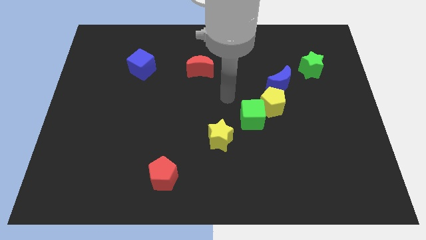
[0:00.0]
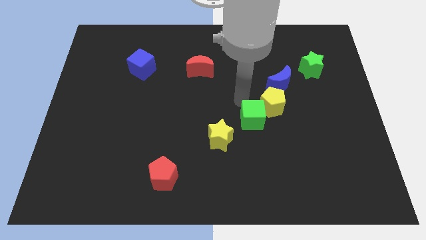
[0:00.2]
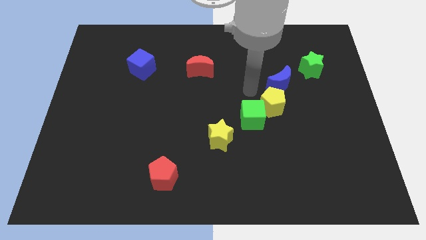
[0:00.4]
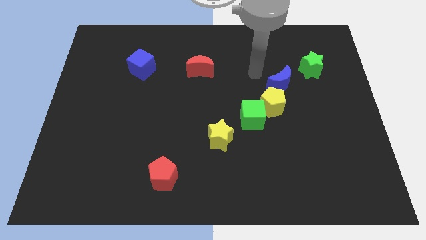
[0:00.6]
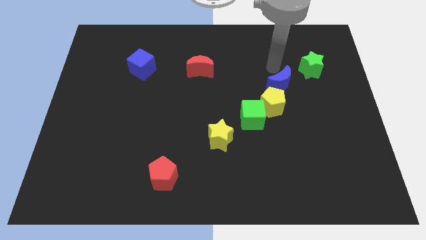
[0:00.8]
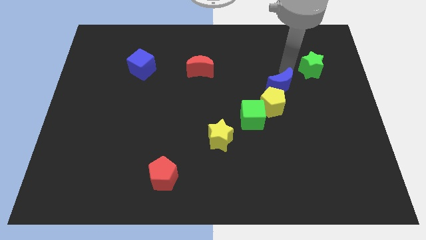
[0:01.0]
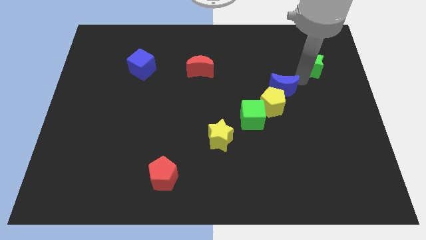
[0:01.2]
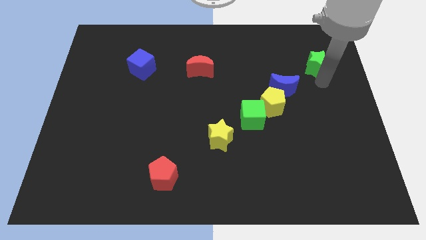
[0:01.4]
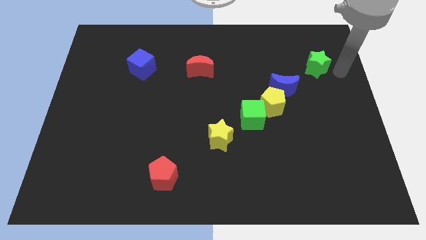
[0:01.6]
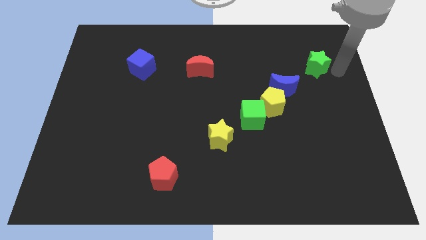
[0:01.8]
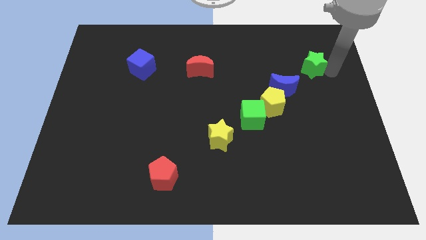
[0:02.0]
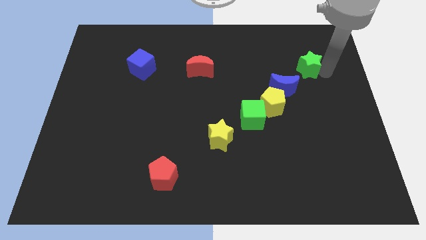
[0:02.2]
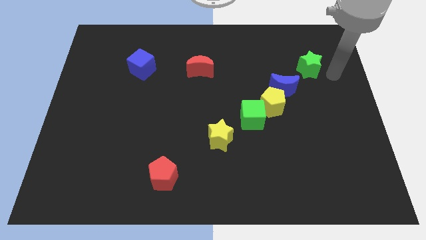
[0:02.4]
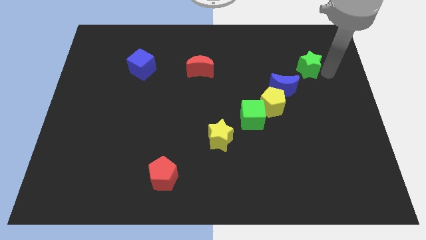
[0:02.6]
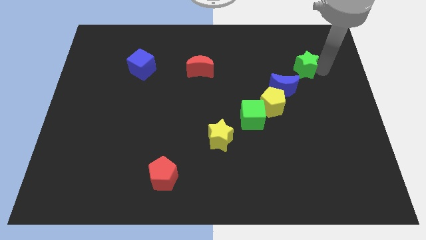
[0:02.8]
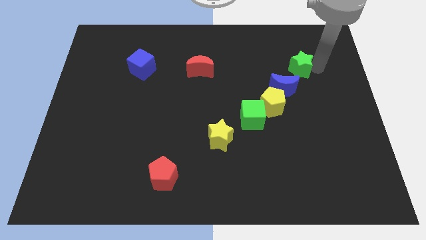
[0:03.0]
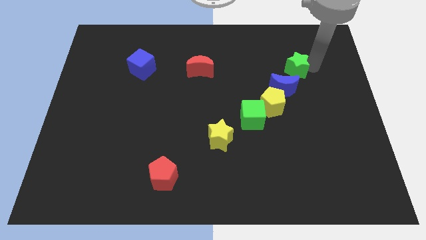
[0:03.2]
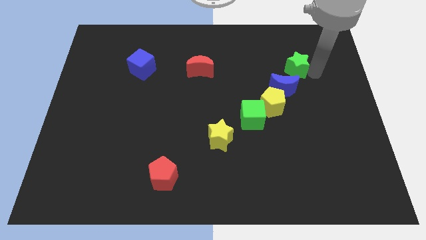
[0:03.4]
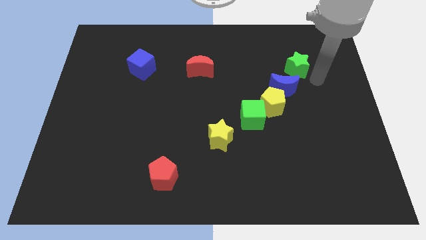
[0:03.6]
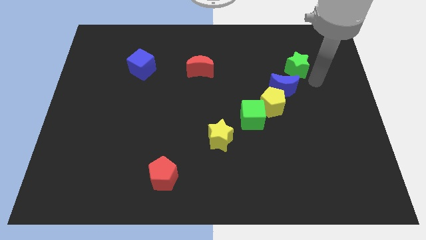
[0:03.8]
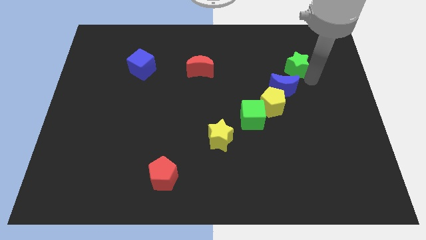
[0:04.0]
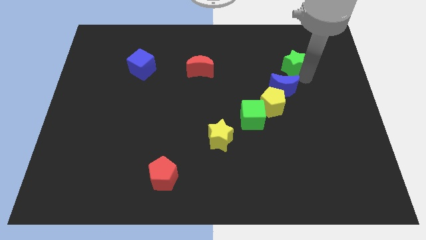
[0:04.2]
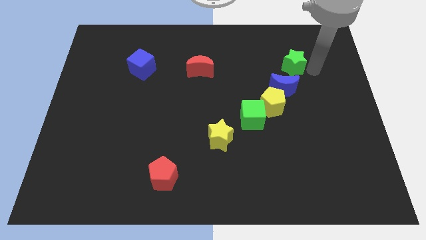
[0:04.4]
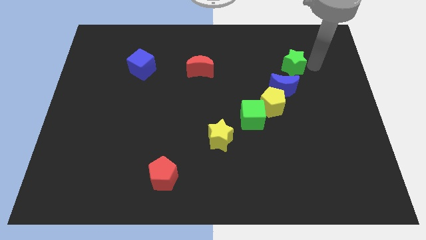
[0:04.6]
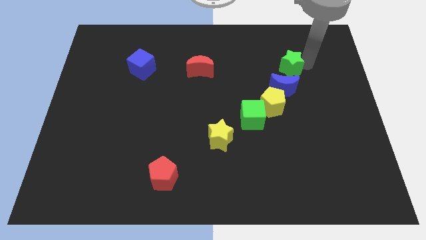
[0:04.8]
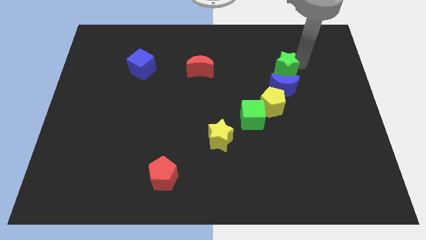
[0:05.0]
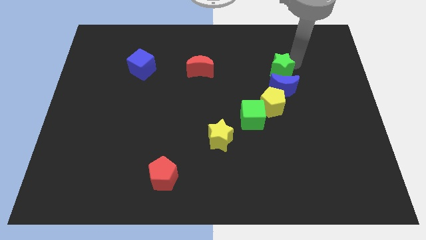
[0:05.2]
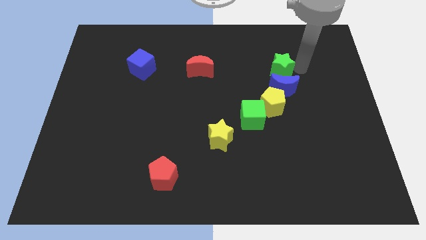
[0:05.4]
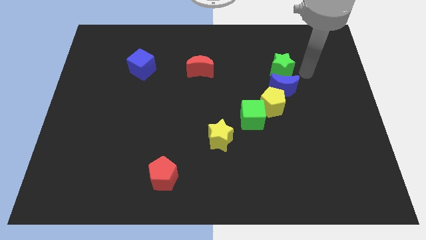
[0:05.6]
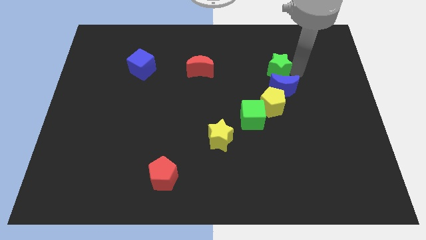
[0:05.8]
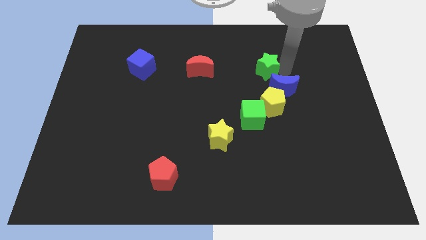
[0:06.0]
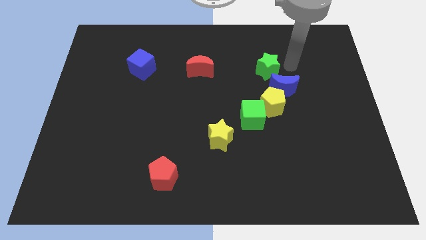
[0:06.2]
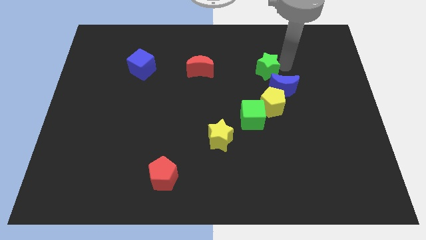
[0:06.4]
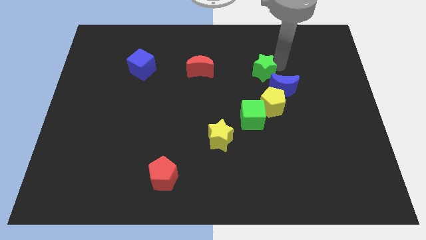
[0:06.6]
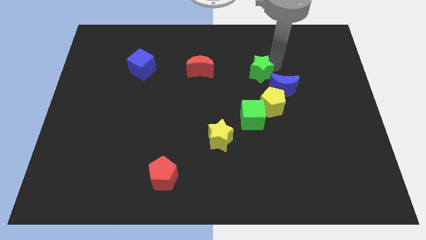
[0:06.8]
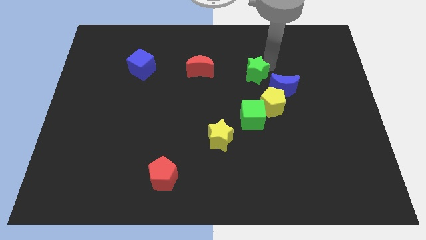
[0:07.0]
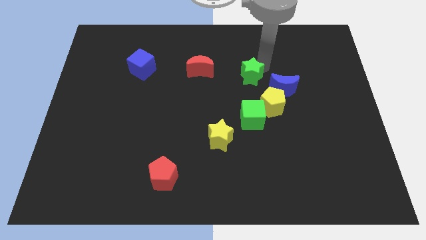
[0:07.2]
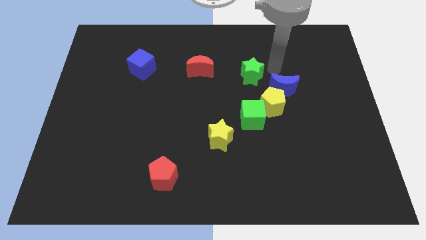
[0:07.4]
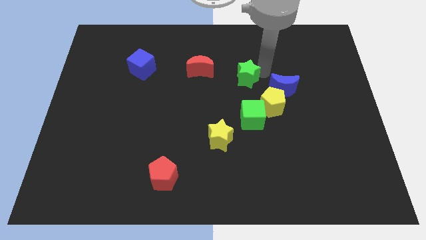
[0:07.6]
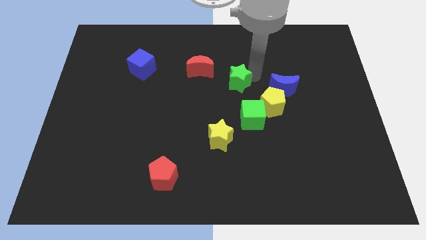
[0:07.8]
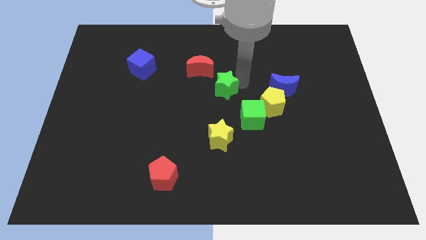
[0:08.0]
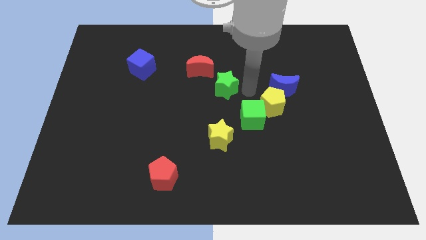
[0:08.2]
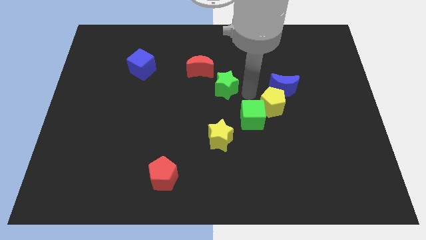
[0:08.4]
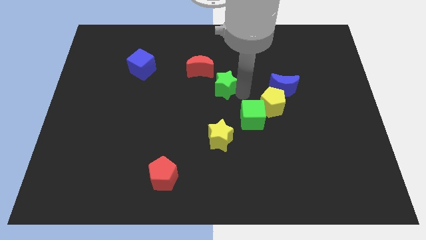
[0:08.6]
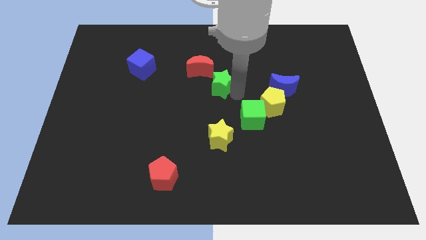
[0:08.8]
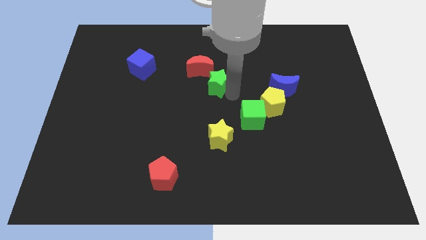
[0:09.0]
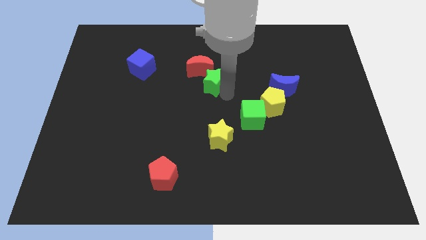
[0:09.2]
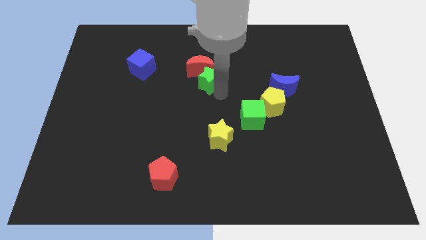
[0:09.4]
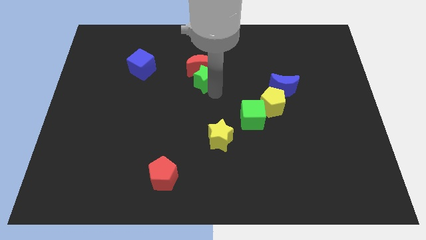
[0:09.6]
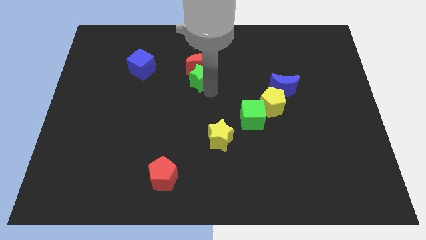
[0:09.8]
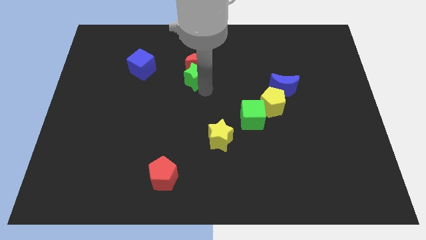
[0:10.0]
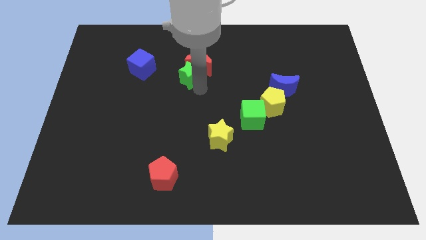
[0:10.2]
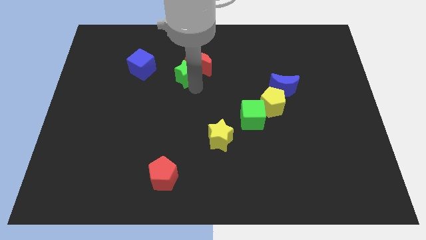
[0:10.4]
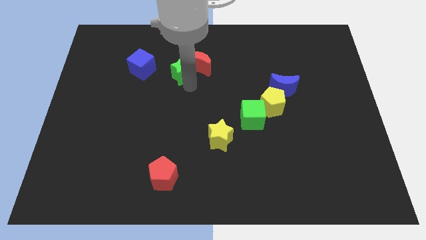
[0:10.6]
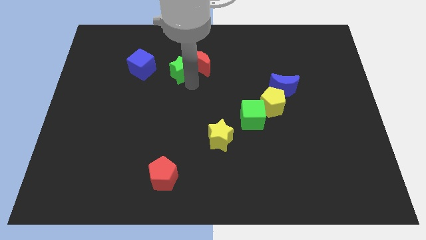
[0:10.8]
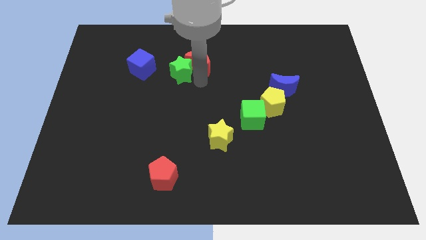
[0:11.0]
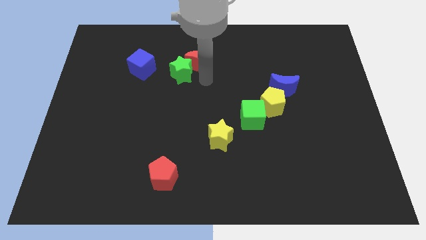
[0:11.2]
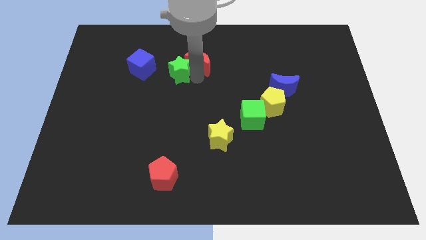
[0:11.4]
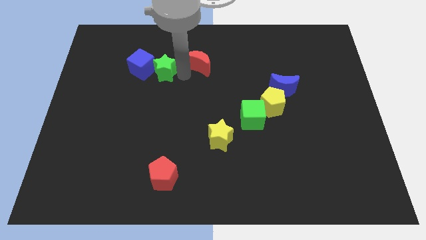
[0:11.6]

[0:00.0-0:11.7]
push the green star towards the blue cube

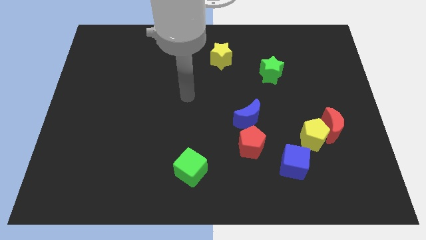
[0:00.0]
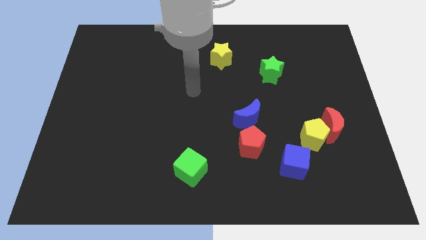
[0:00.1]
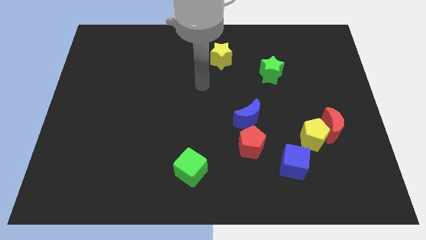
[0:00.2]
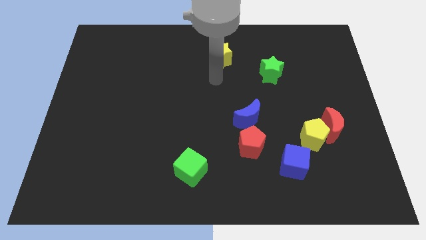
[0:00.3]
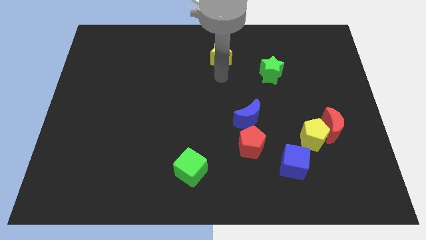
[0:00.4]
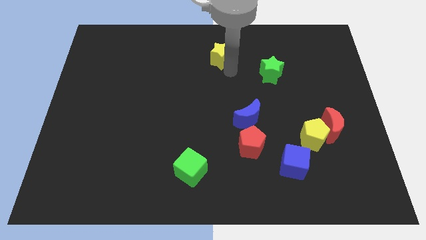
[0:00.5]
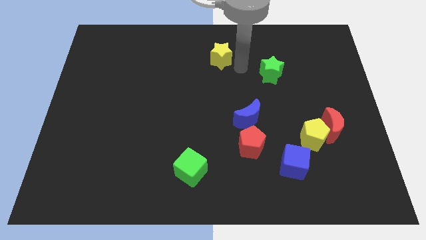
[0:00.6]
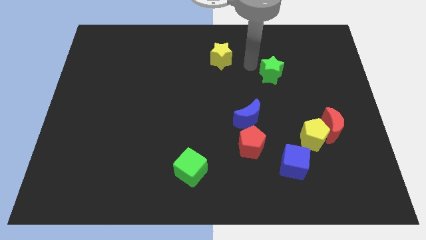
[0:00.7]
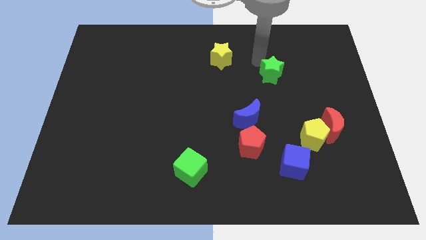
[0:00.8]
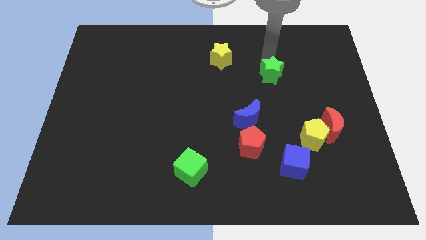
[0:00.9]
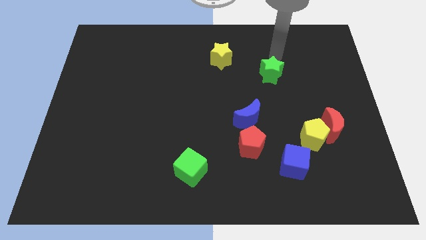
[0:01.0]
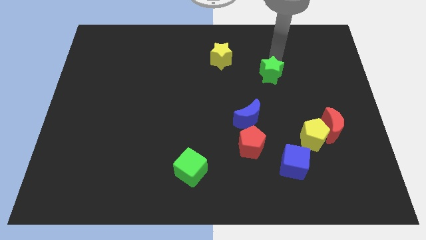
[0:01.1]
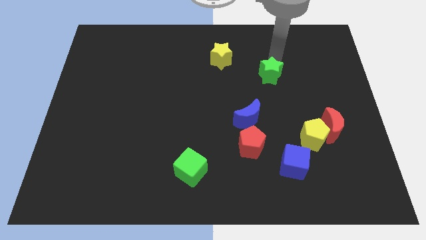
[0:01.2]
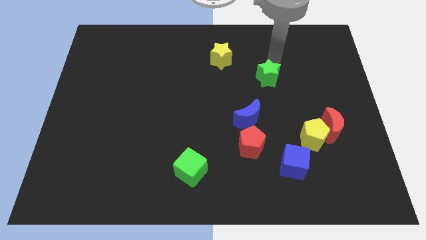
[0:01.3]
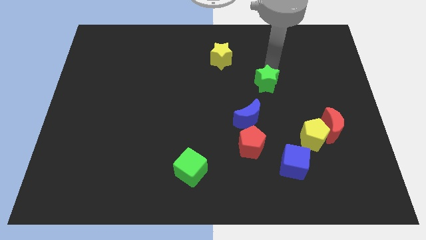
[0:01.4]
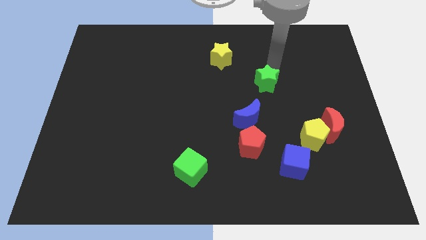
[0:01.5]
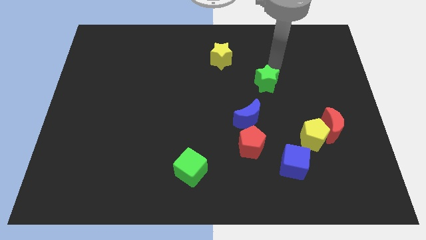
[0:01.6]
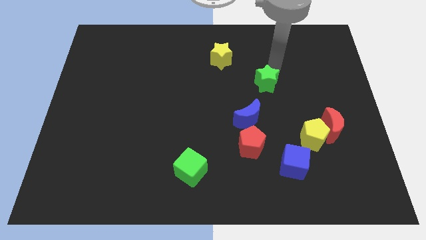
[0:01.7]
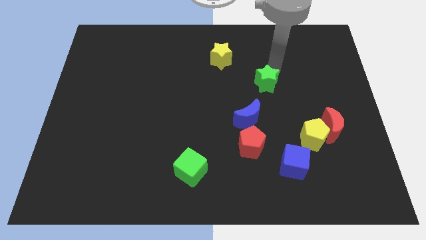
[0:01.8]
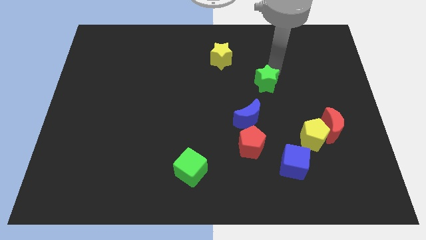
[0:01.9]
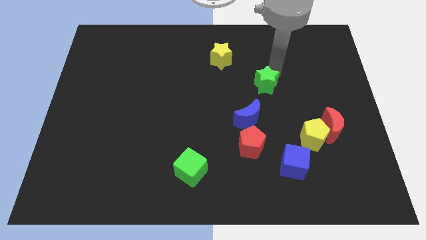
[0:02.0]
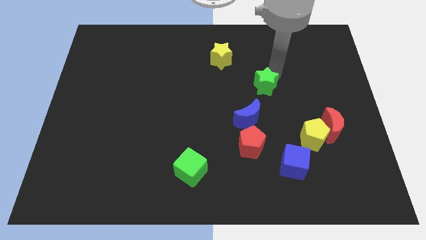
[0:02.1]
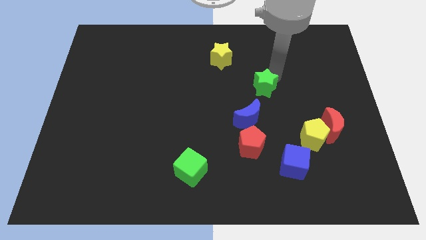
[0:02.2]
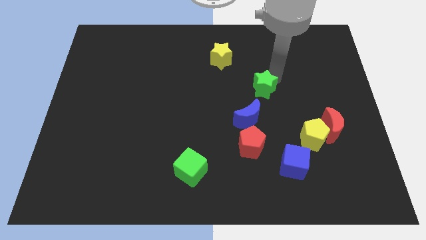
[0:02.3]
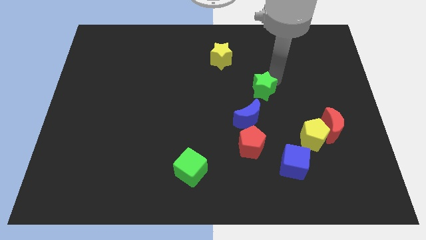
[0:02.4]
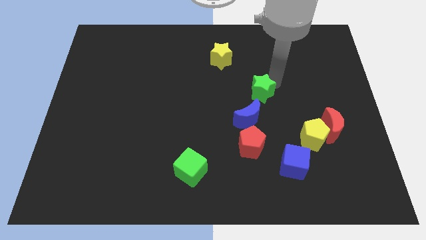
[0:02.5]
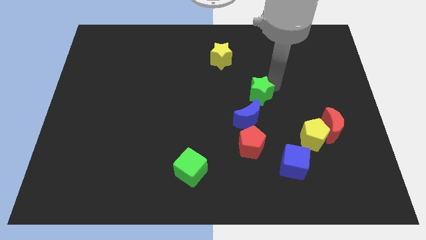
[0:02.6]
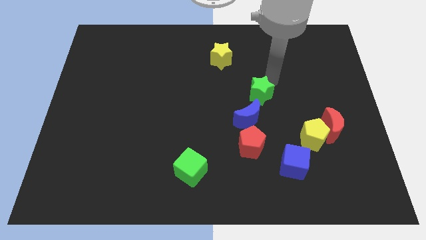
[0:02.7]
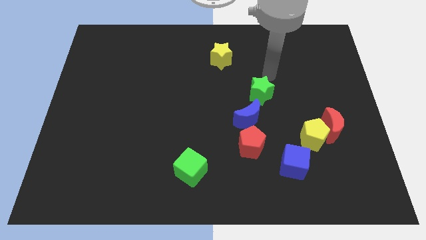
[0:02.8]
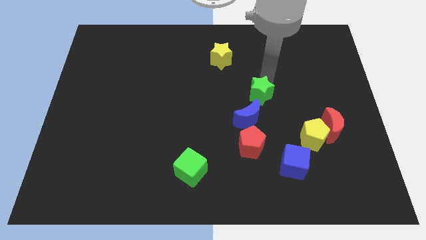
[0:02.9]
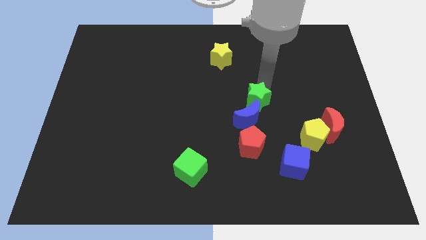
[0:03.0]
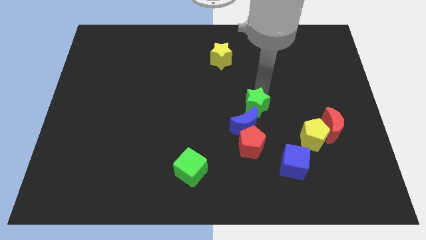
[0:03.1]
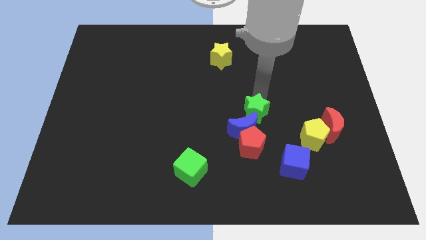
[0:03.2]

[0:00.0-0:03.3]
put the green star towards the blue moon
